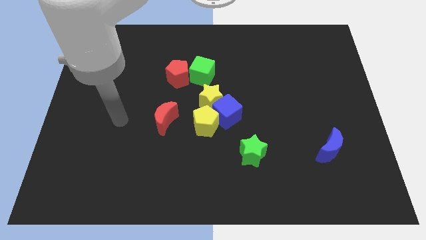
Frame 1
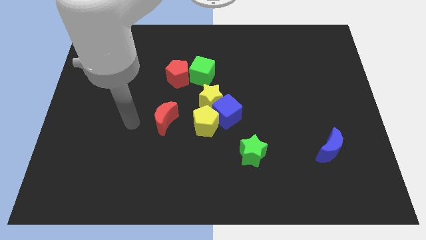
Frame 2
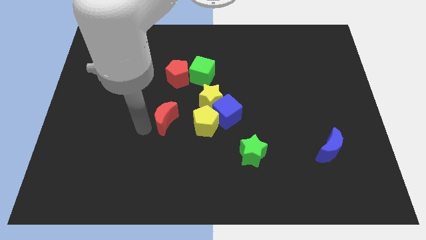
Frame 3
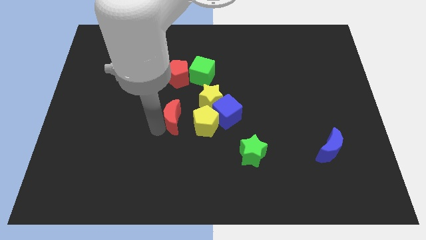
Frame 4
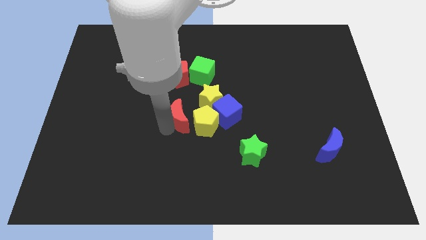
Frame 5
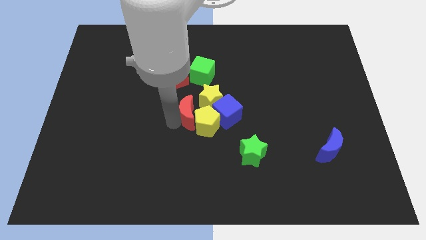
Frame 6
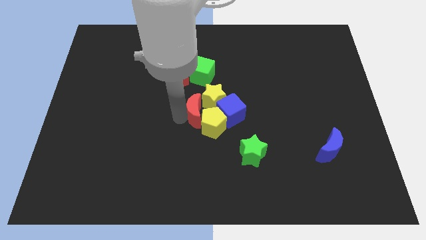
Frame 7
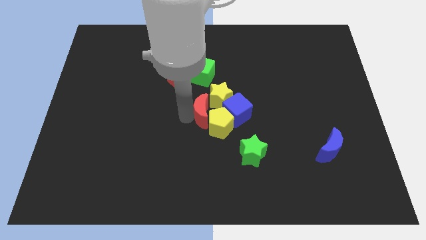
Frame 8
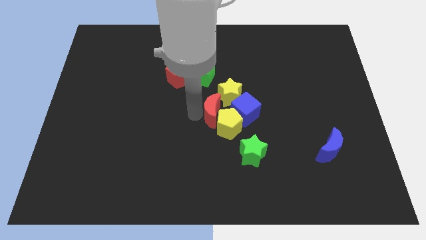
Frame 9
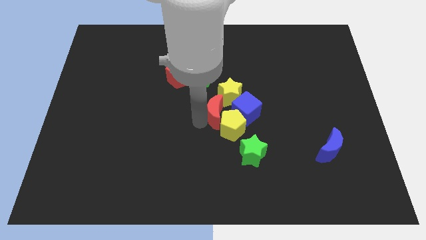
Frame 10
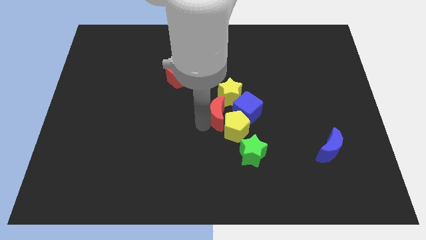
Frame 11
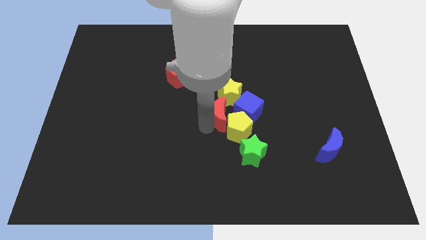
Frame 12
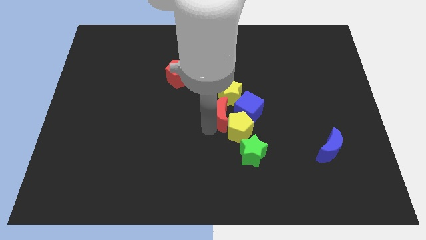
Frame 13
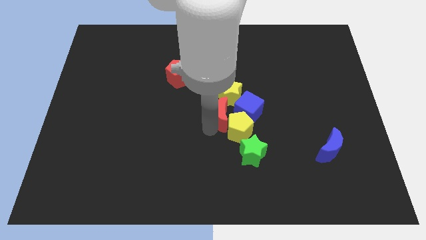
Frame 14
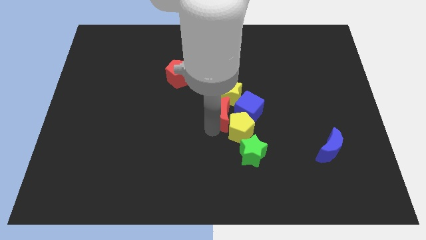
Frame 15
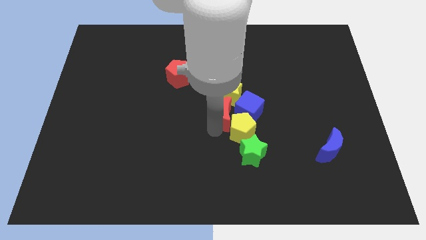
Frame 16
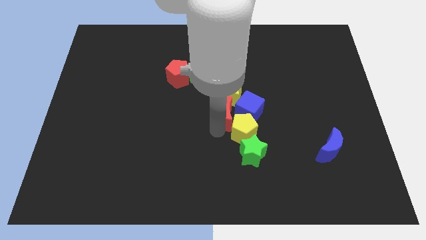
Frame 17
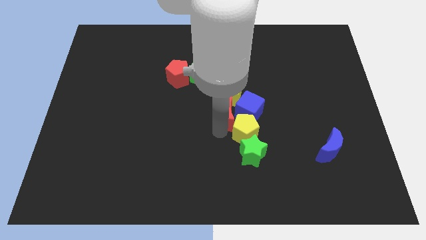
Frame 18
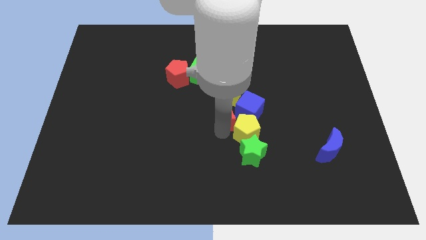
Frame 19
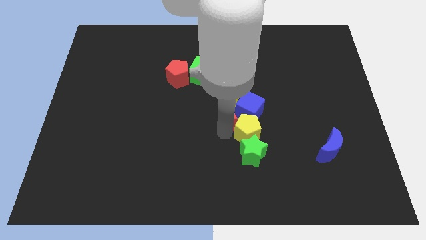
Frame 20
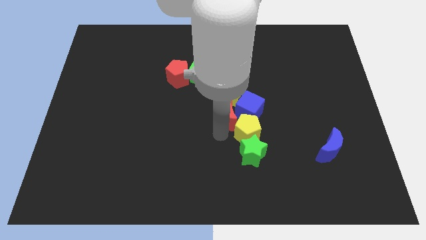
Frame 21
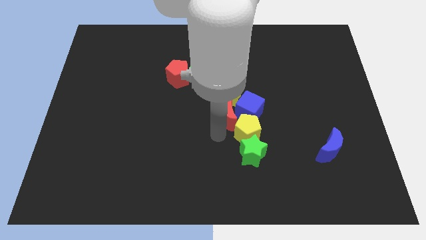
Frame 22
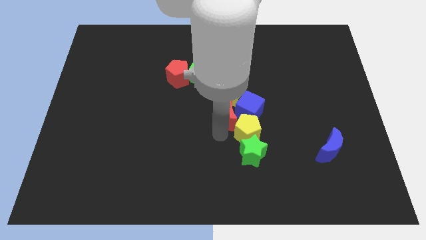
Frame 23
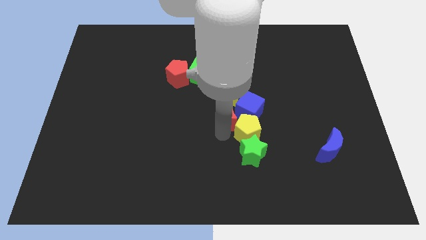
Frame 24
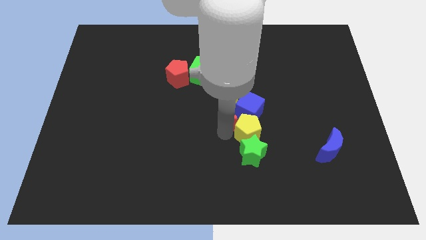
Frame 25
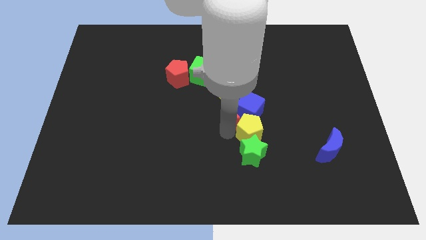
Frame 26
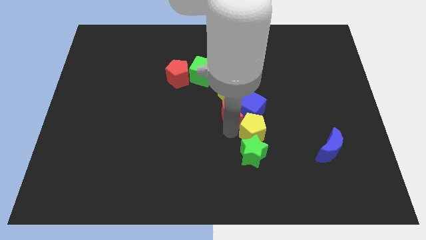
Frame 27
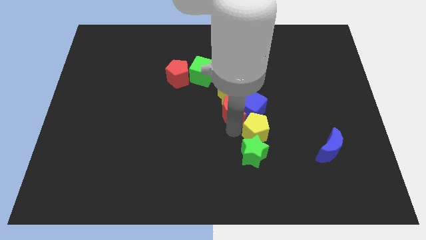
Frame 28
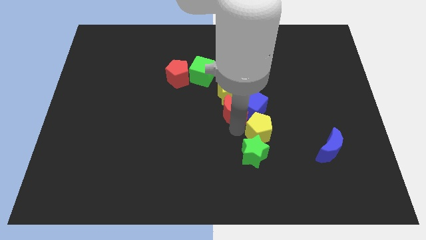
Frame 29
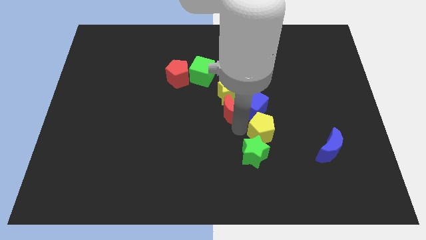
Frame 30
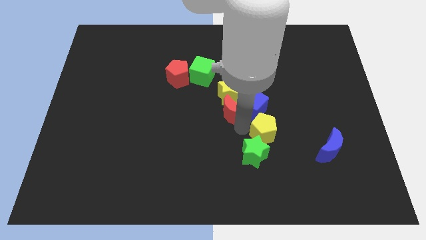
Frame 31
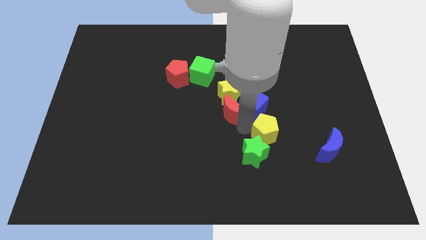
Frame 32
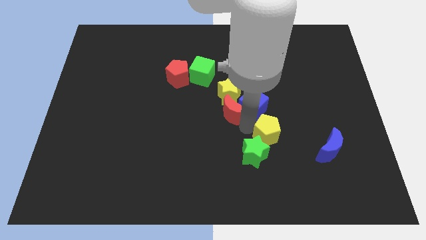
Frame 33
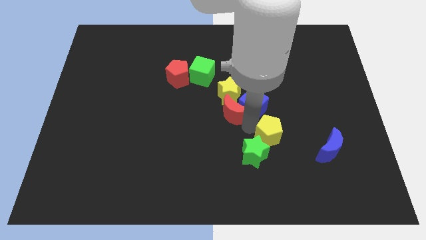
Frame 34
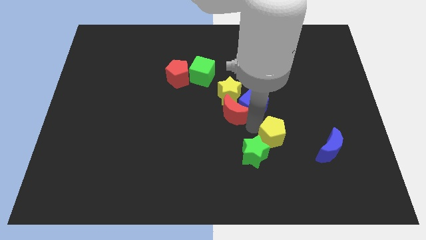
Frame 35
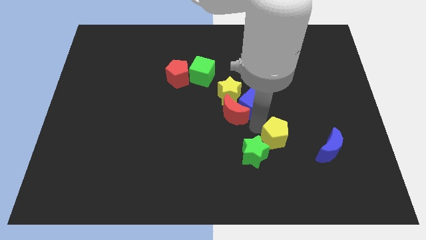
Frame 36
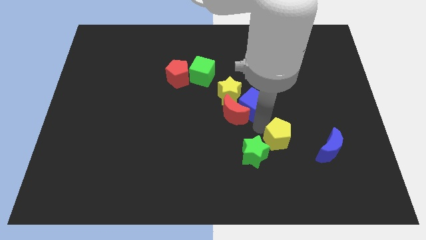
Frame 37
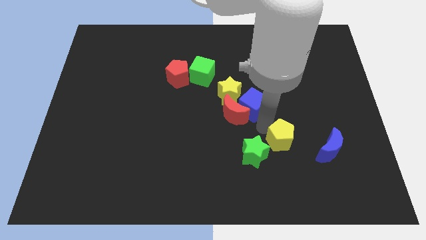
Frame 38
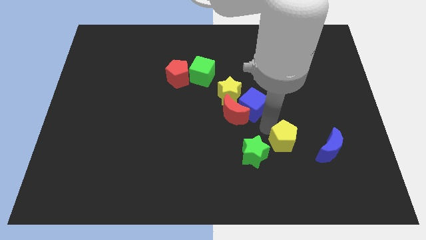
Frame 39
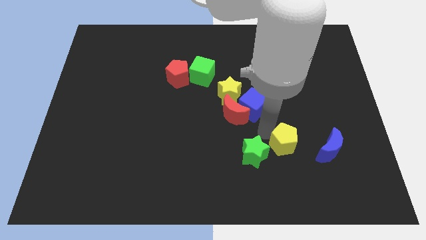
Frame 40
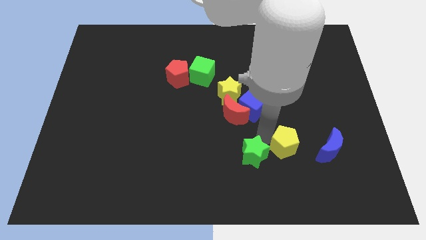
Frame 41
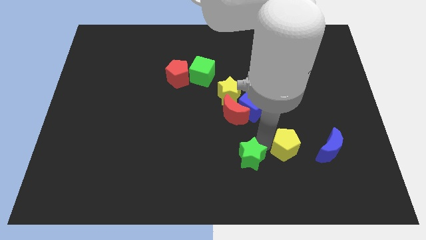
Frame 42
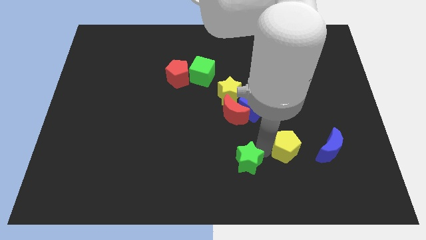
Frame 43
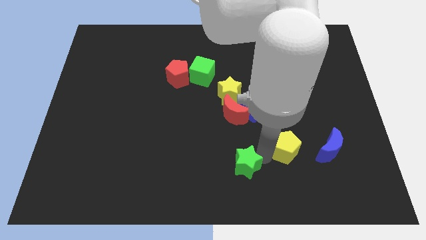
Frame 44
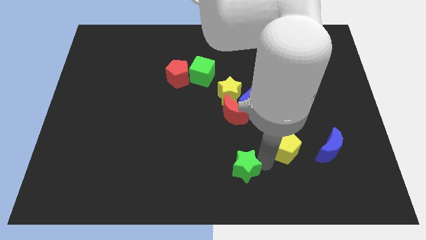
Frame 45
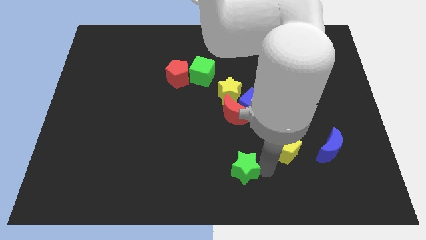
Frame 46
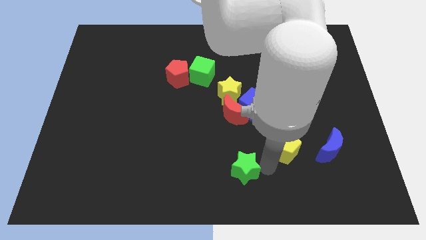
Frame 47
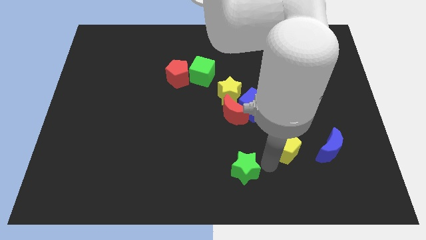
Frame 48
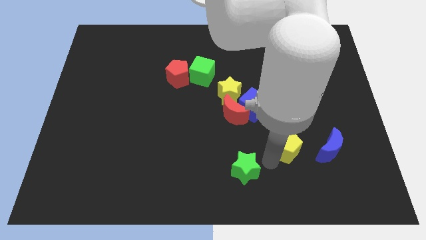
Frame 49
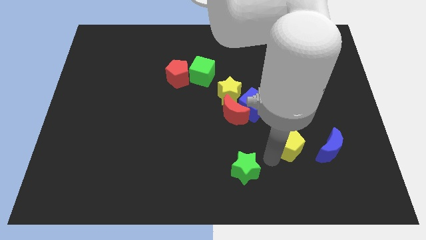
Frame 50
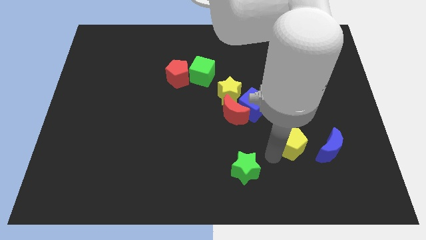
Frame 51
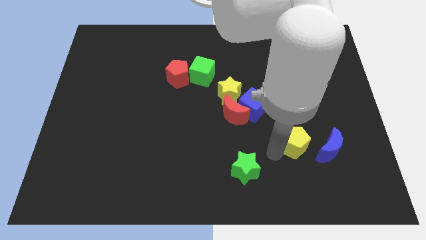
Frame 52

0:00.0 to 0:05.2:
slide the yellow pentagon diagonally up and to the left of the blue moon

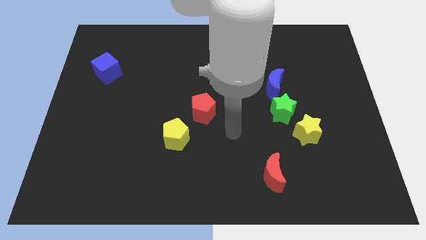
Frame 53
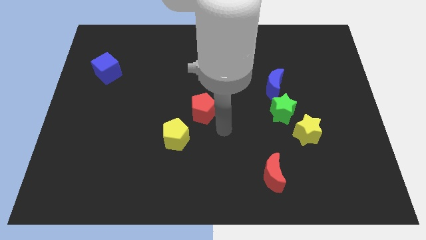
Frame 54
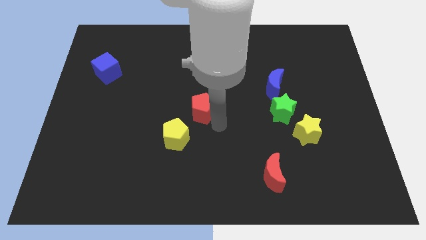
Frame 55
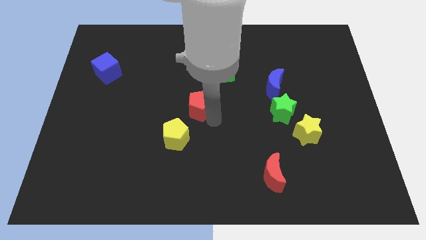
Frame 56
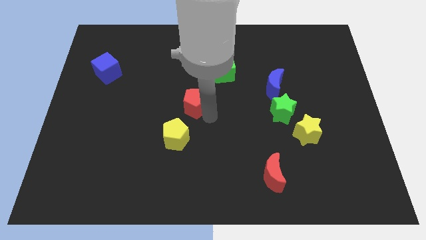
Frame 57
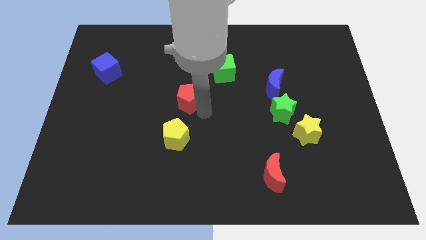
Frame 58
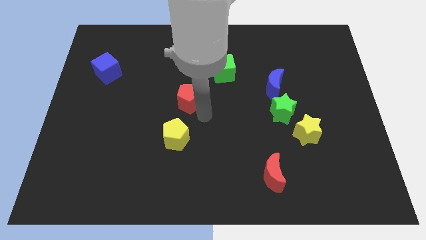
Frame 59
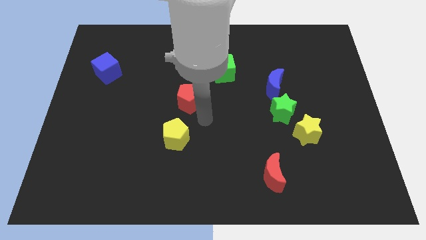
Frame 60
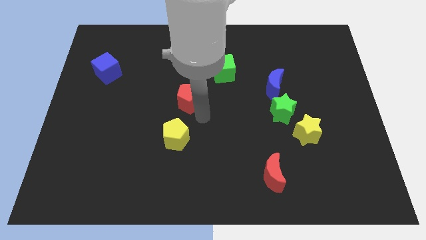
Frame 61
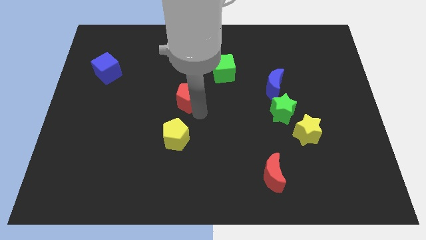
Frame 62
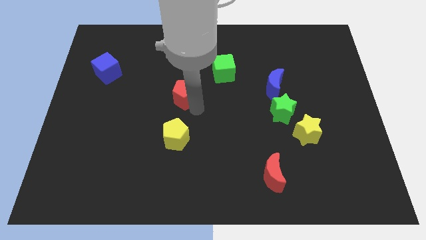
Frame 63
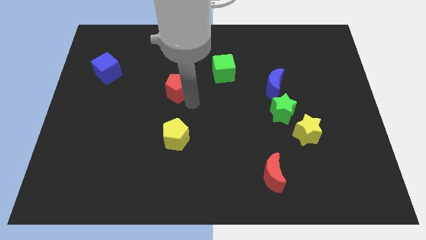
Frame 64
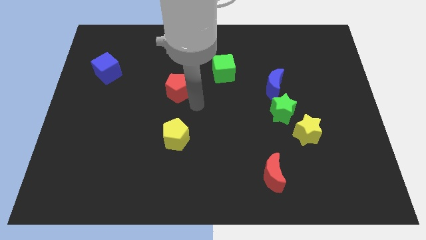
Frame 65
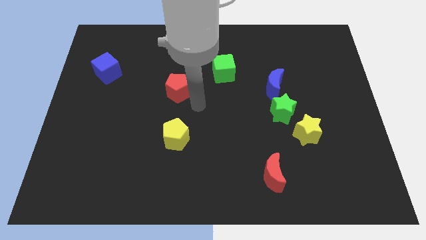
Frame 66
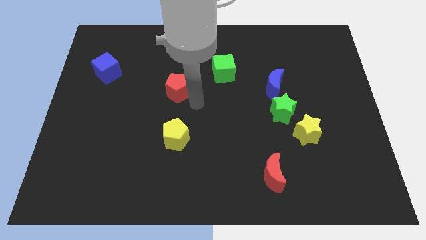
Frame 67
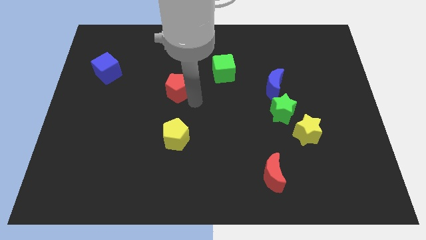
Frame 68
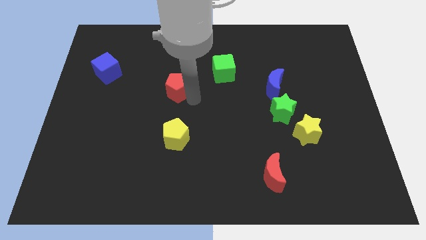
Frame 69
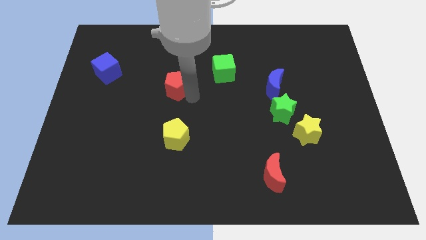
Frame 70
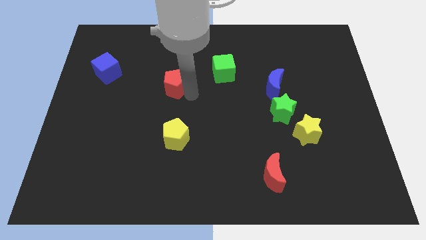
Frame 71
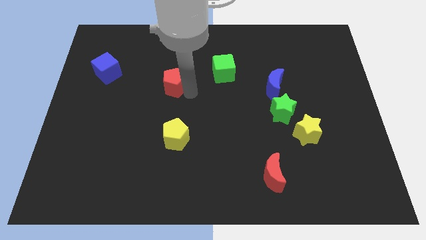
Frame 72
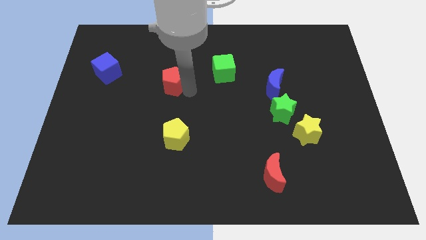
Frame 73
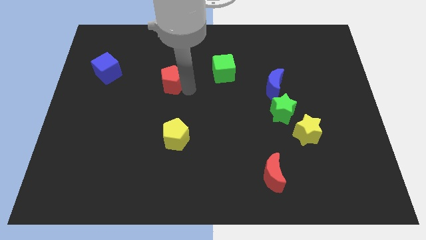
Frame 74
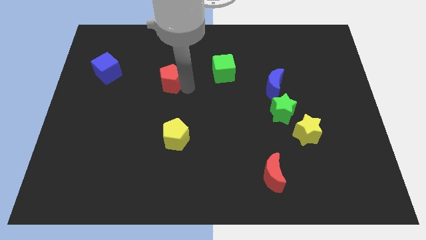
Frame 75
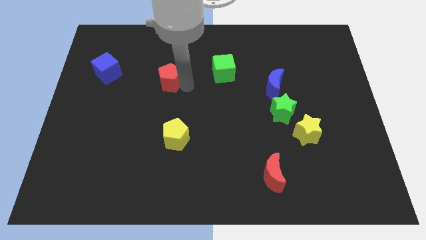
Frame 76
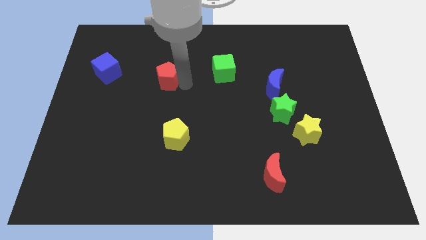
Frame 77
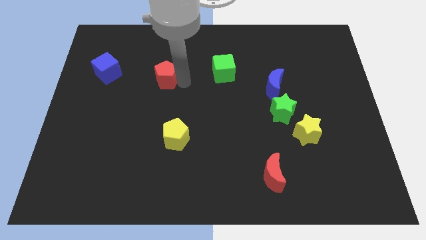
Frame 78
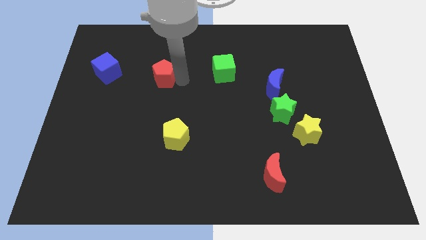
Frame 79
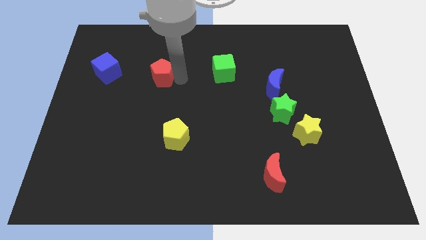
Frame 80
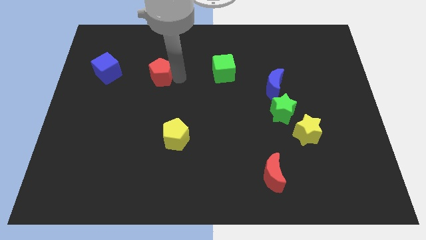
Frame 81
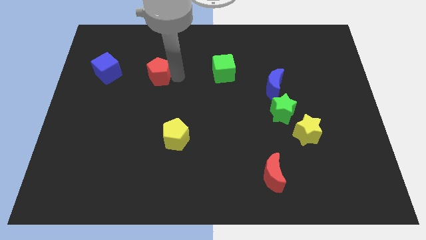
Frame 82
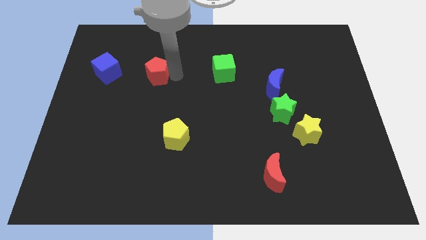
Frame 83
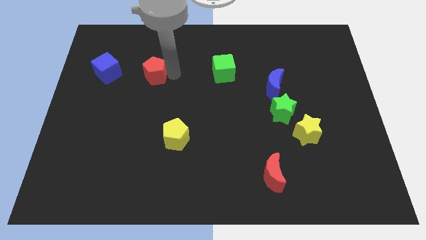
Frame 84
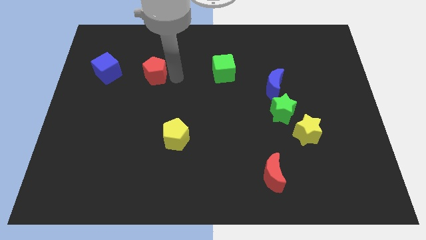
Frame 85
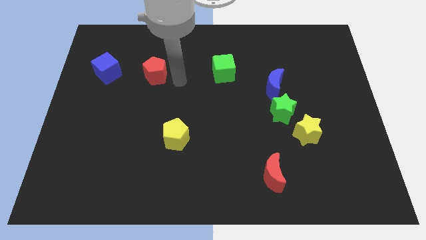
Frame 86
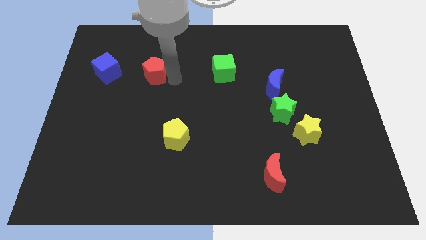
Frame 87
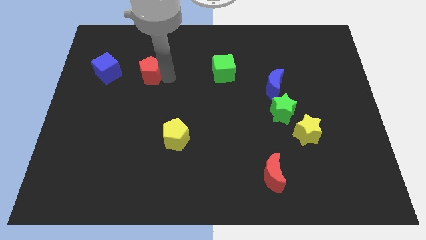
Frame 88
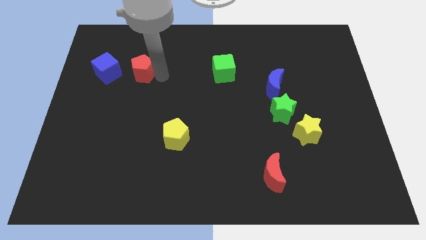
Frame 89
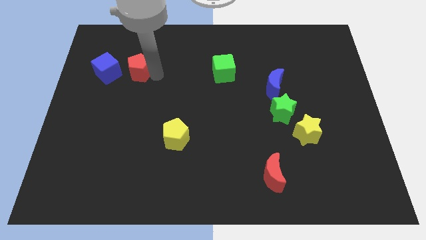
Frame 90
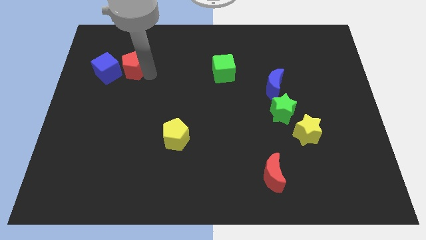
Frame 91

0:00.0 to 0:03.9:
put the red pentagon to the top right of the blue cube
